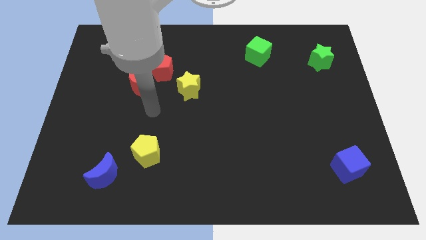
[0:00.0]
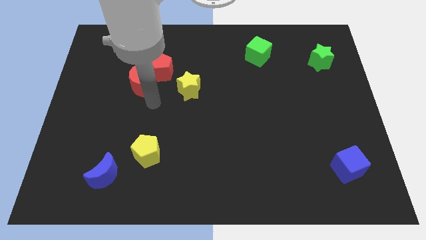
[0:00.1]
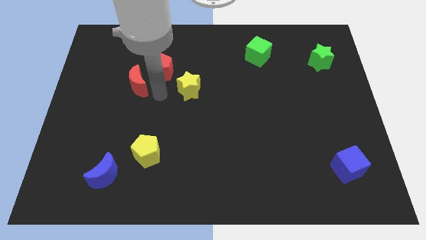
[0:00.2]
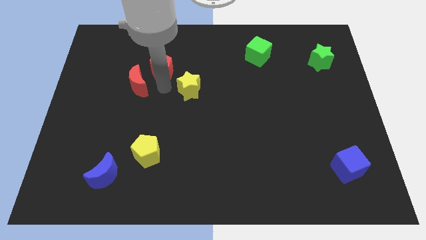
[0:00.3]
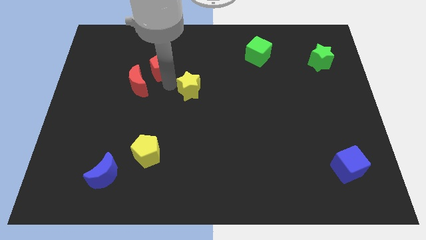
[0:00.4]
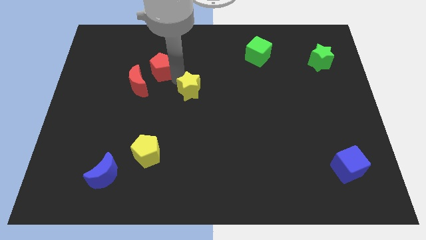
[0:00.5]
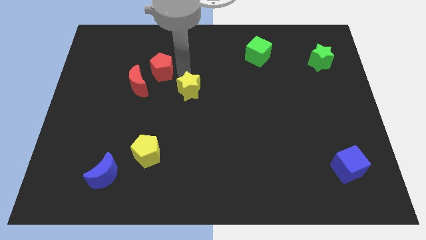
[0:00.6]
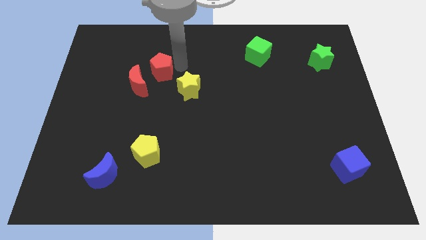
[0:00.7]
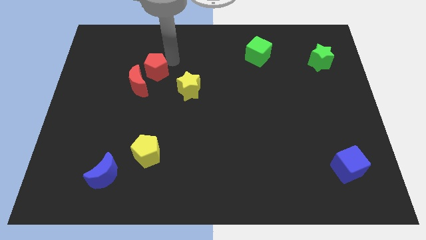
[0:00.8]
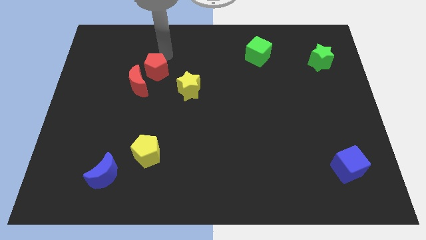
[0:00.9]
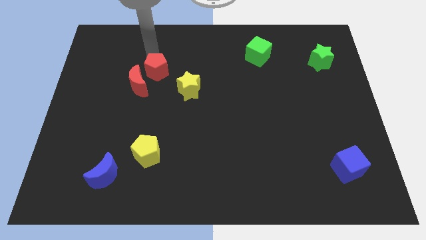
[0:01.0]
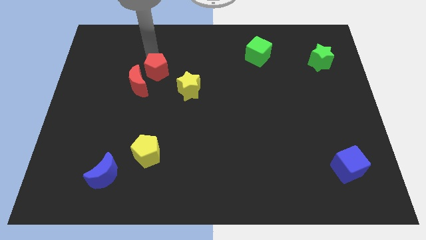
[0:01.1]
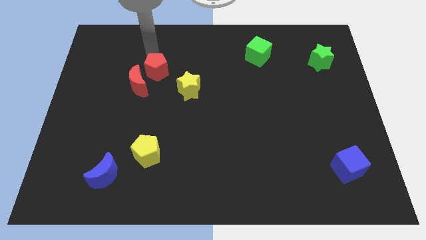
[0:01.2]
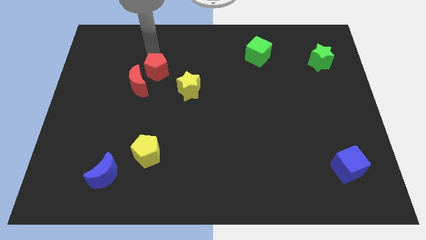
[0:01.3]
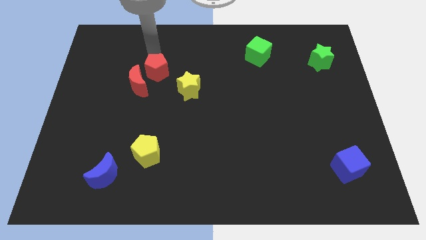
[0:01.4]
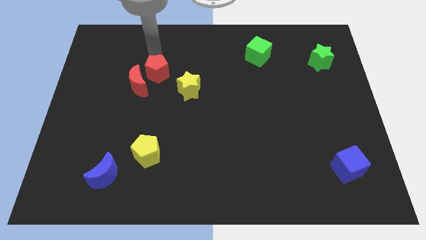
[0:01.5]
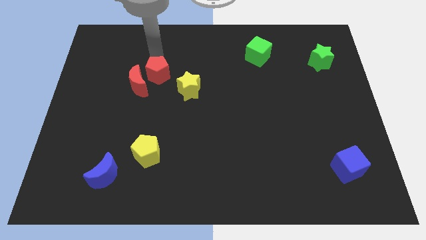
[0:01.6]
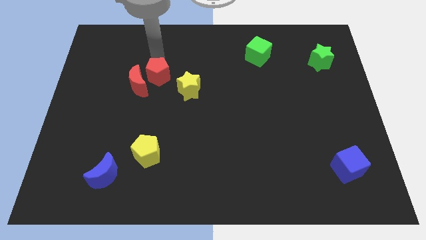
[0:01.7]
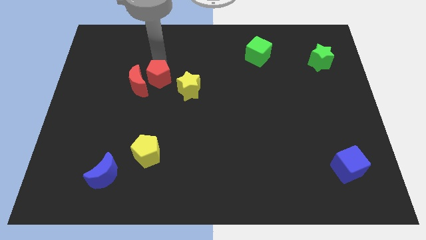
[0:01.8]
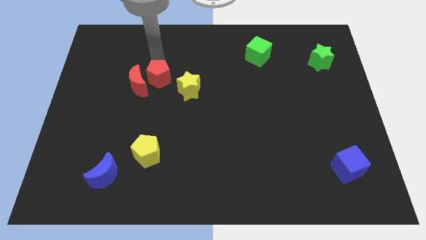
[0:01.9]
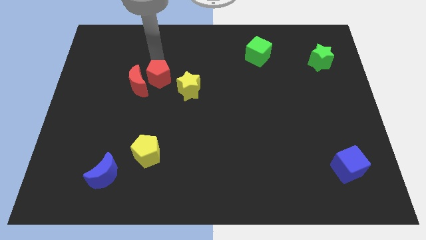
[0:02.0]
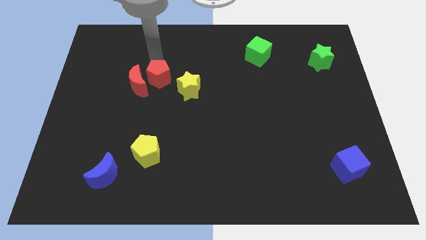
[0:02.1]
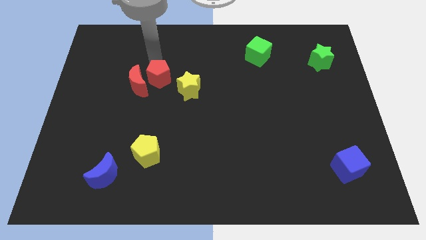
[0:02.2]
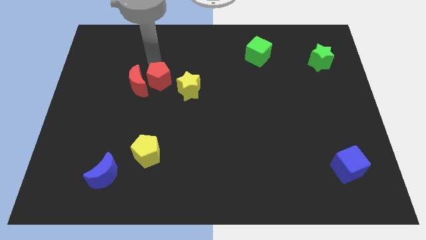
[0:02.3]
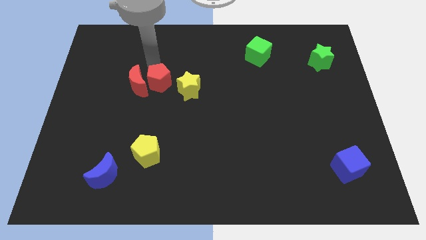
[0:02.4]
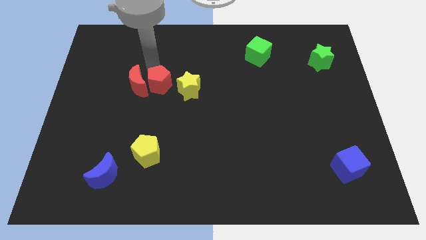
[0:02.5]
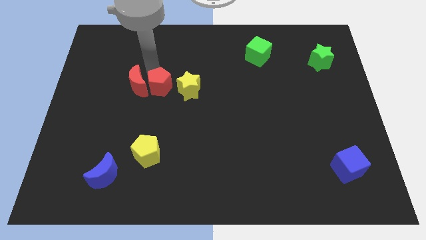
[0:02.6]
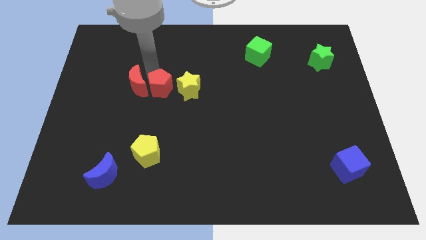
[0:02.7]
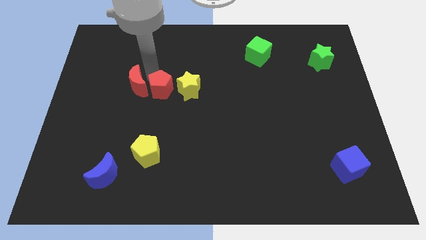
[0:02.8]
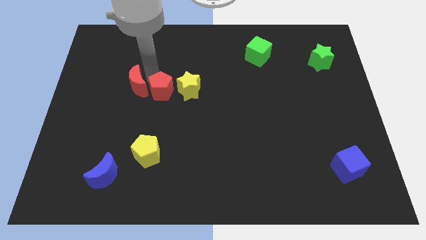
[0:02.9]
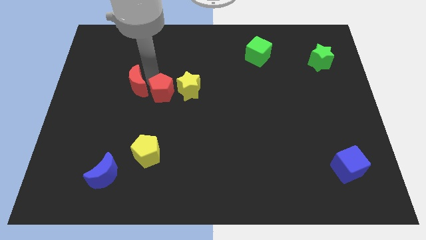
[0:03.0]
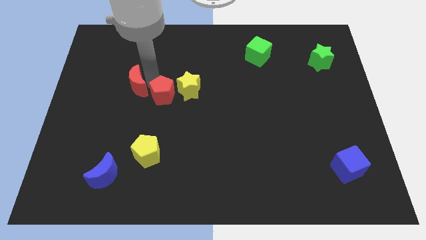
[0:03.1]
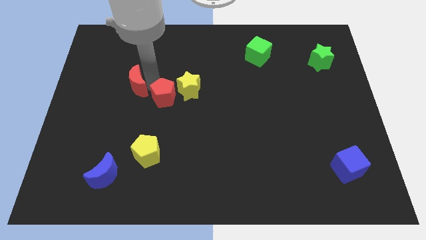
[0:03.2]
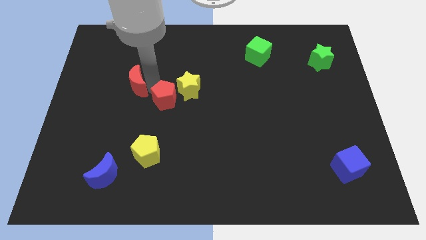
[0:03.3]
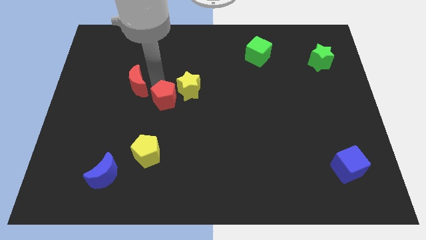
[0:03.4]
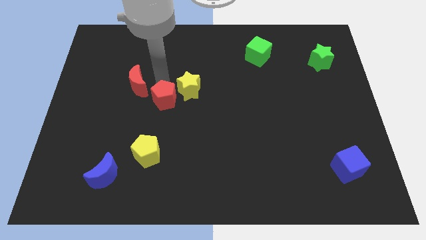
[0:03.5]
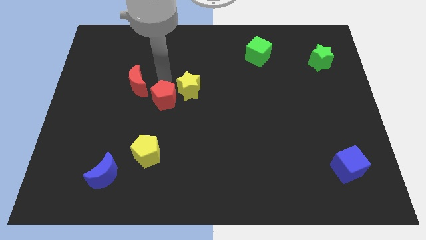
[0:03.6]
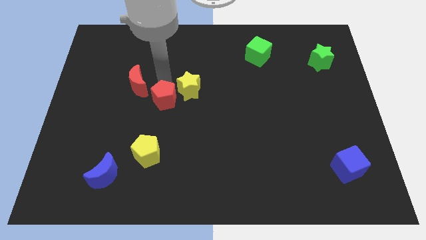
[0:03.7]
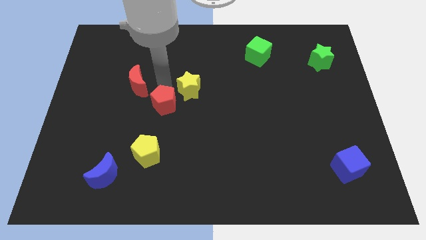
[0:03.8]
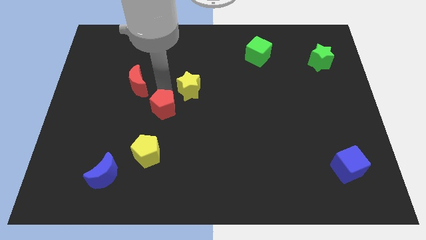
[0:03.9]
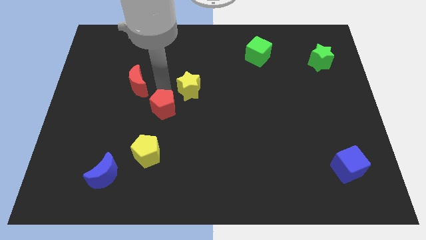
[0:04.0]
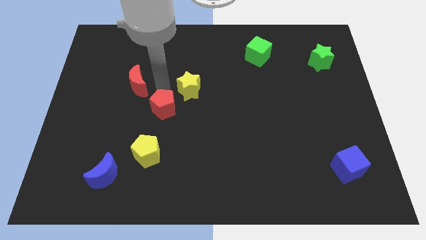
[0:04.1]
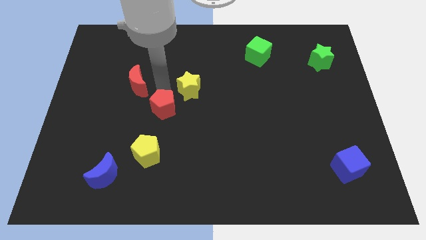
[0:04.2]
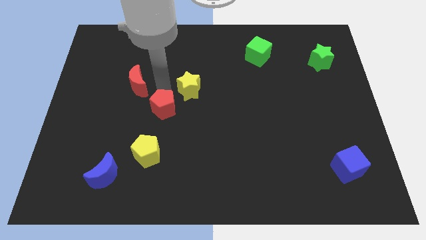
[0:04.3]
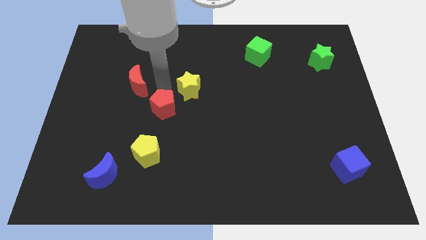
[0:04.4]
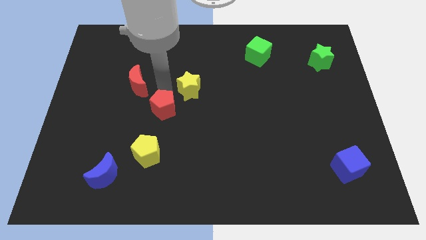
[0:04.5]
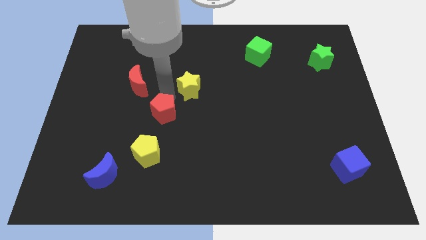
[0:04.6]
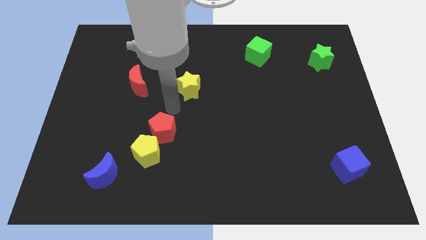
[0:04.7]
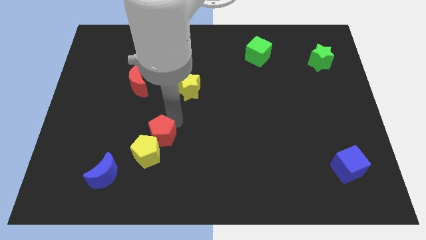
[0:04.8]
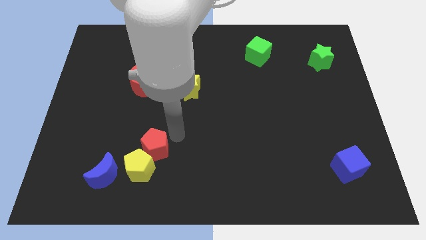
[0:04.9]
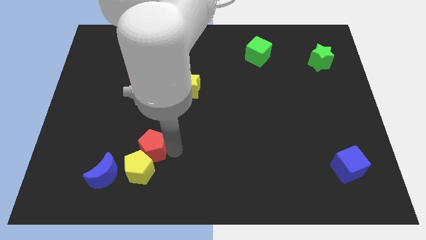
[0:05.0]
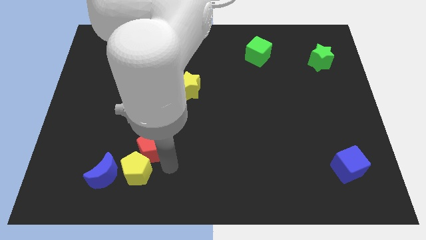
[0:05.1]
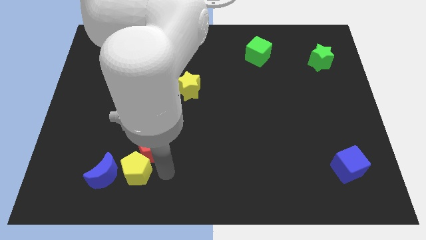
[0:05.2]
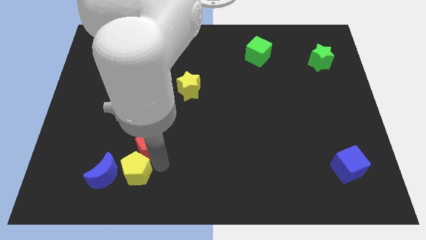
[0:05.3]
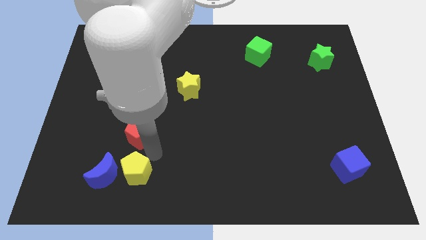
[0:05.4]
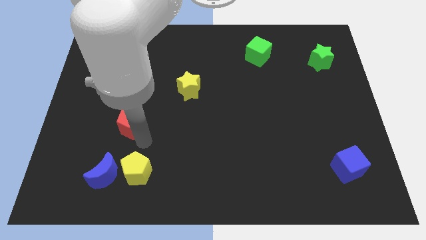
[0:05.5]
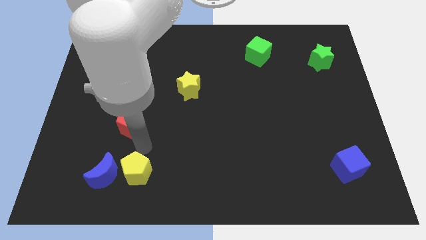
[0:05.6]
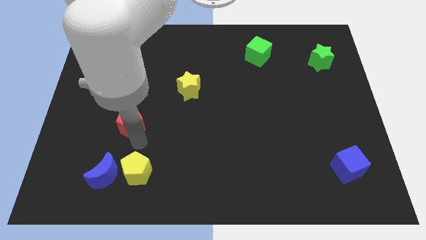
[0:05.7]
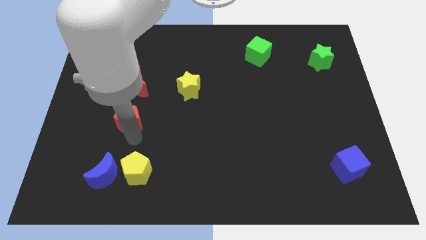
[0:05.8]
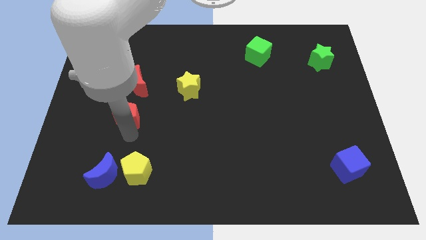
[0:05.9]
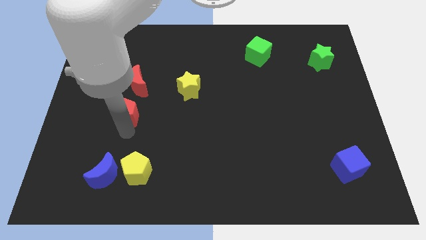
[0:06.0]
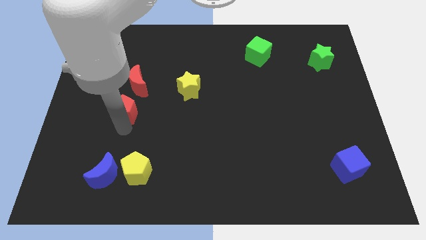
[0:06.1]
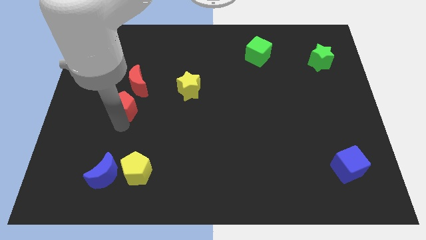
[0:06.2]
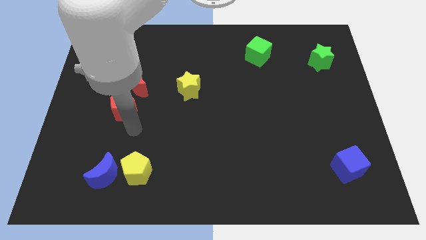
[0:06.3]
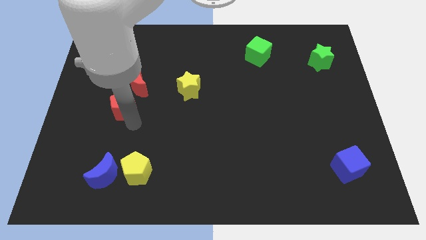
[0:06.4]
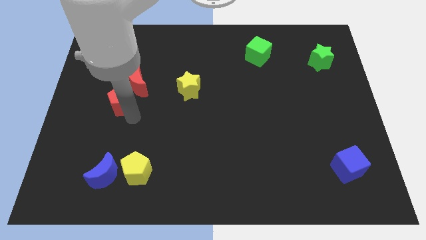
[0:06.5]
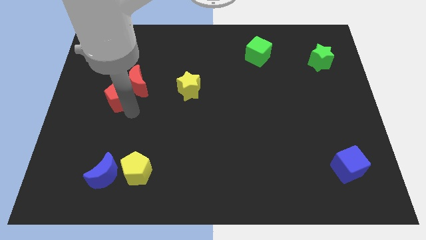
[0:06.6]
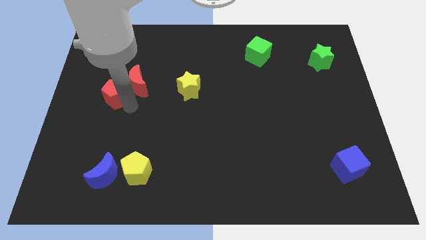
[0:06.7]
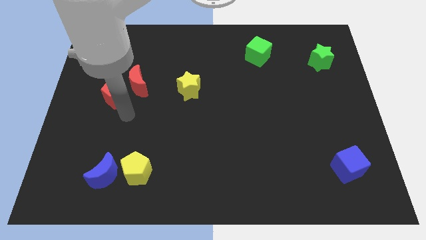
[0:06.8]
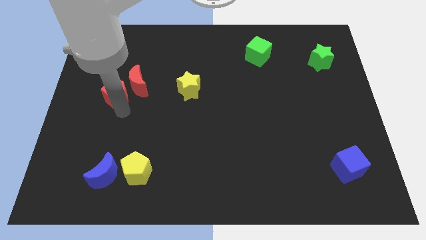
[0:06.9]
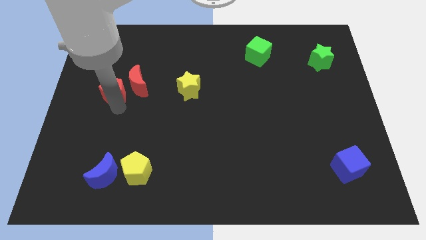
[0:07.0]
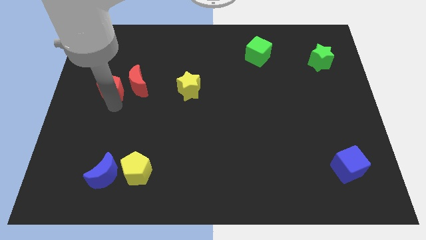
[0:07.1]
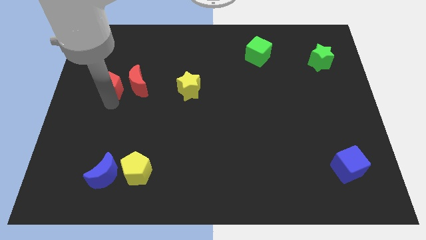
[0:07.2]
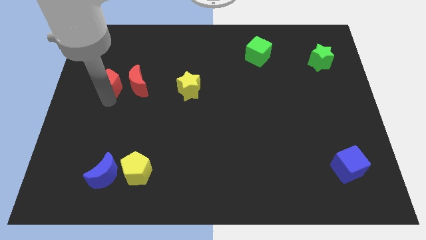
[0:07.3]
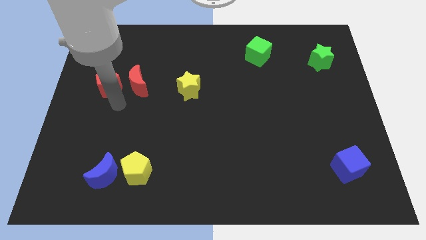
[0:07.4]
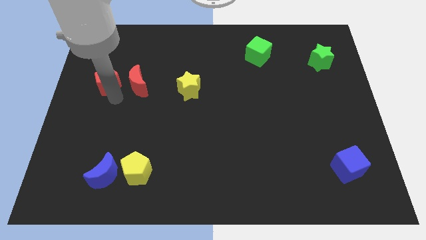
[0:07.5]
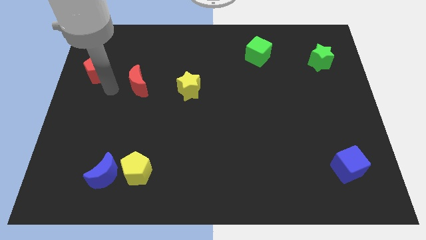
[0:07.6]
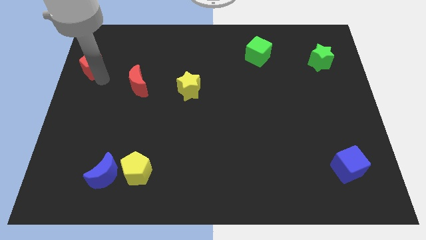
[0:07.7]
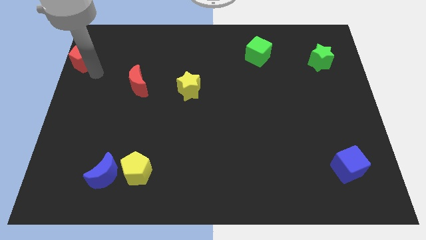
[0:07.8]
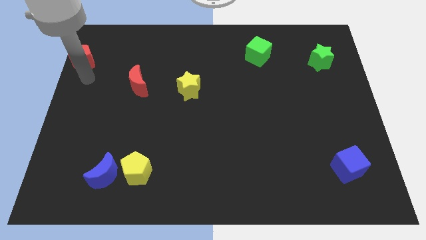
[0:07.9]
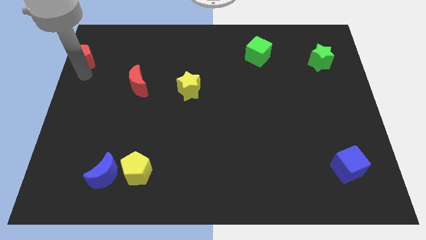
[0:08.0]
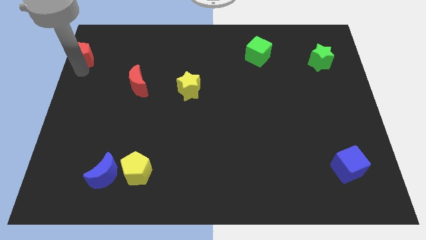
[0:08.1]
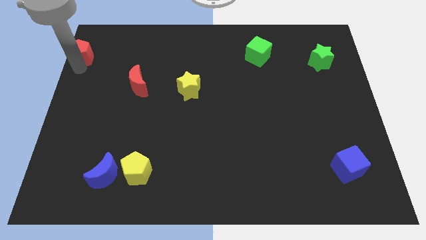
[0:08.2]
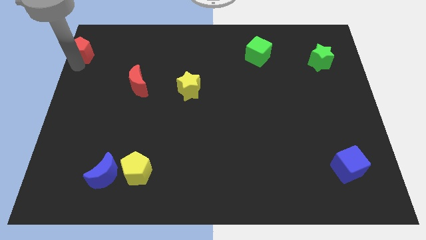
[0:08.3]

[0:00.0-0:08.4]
push the red pentagon to the top left corner
